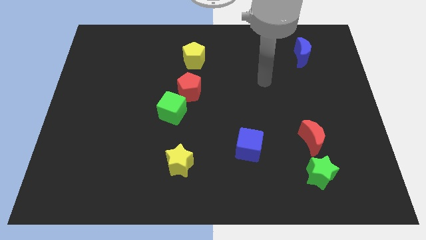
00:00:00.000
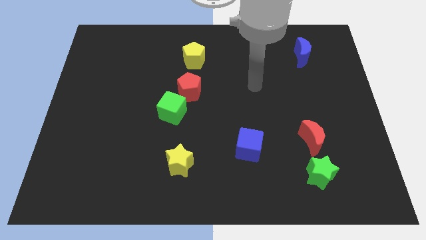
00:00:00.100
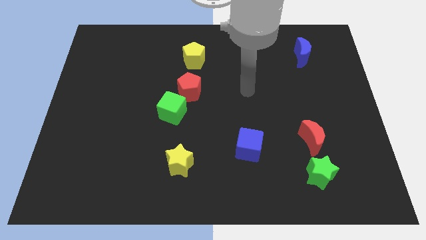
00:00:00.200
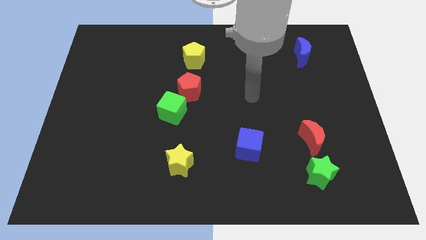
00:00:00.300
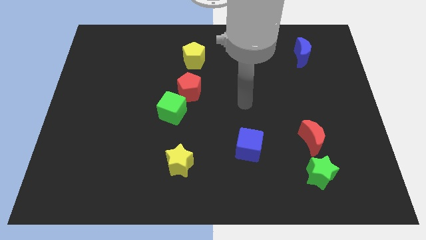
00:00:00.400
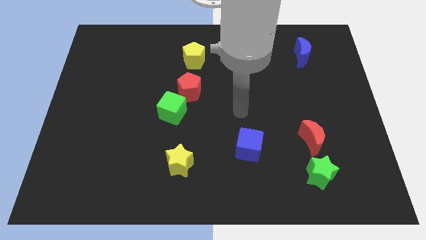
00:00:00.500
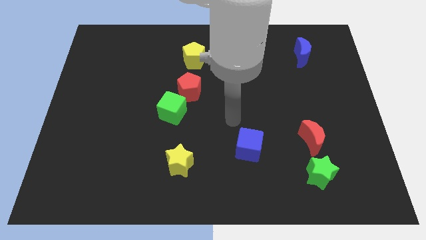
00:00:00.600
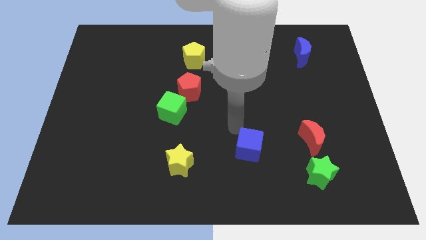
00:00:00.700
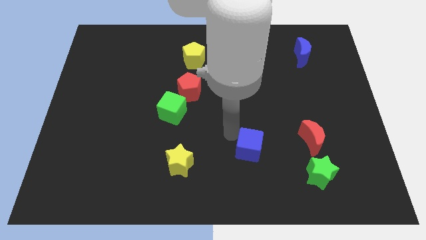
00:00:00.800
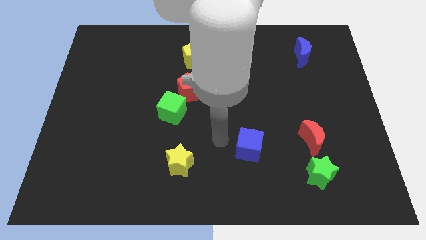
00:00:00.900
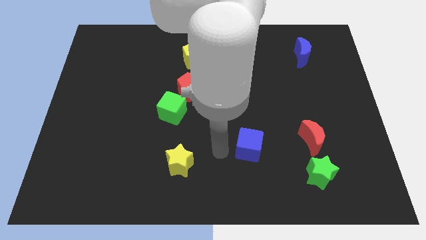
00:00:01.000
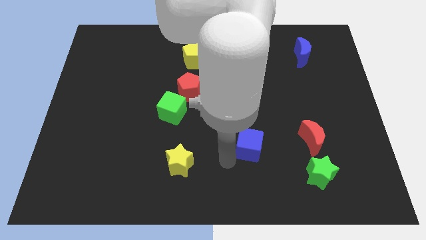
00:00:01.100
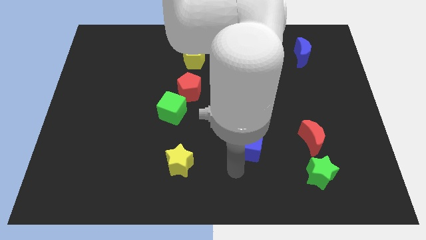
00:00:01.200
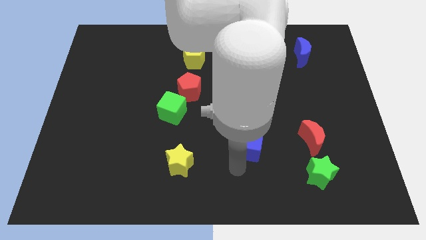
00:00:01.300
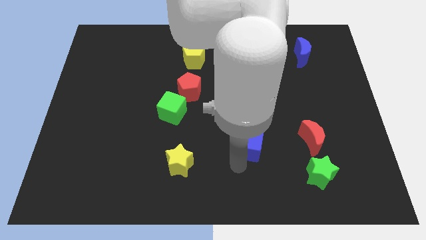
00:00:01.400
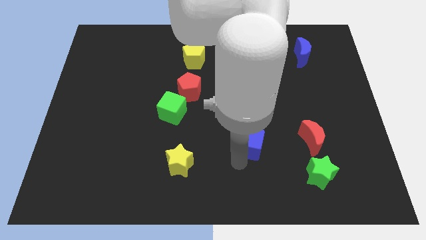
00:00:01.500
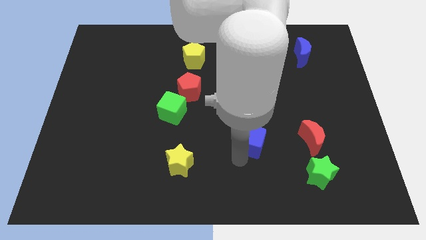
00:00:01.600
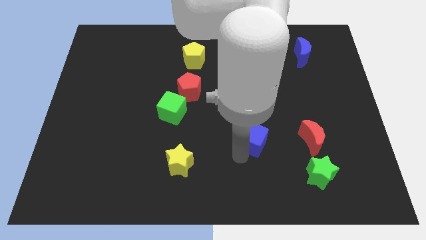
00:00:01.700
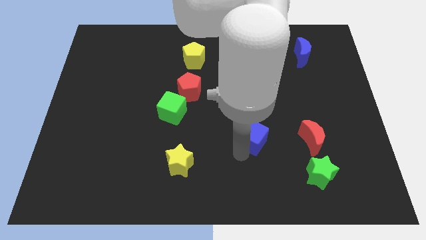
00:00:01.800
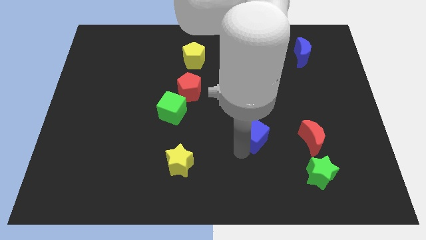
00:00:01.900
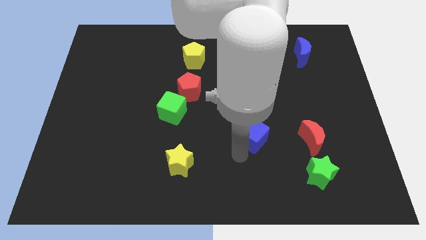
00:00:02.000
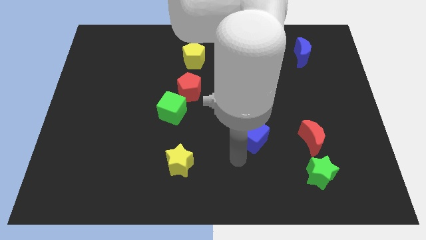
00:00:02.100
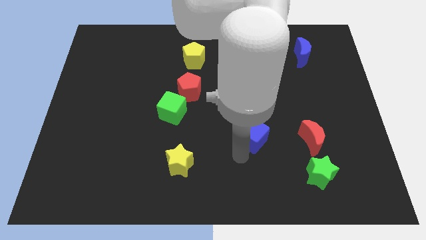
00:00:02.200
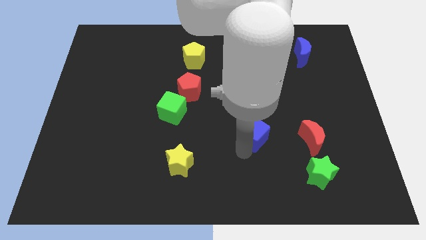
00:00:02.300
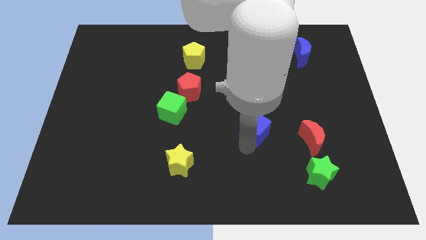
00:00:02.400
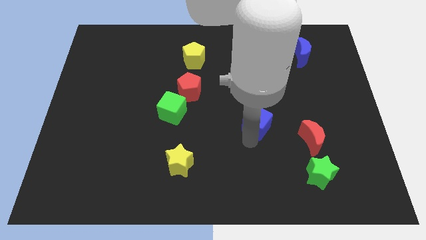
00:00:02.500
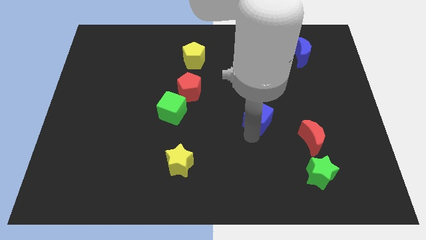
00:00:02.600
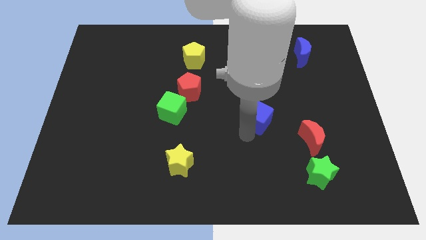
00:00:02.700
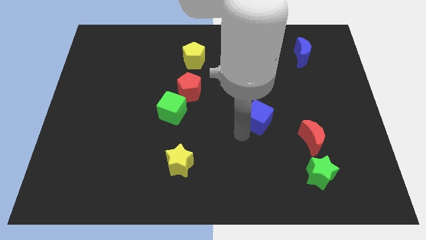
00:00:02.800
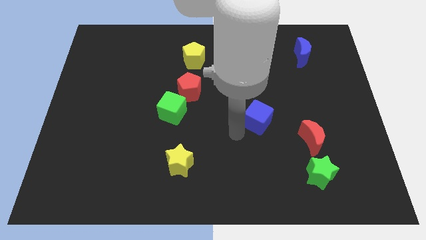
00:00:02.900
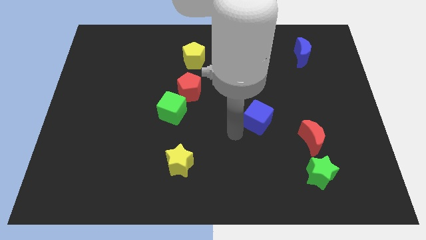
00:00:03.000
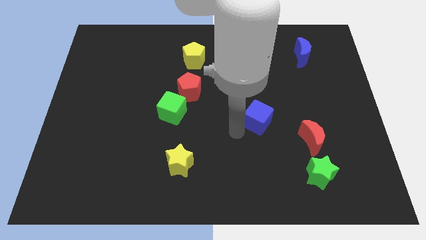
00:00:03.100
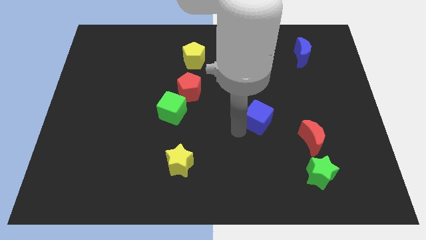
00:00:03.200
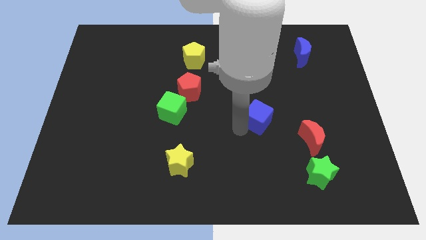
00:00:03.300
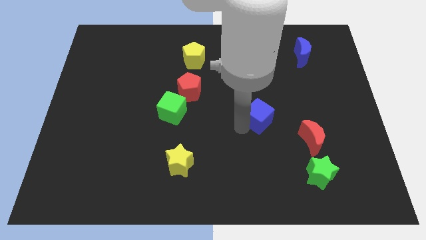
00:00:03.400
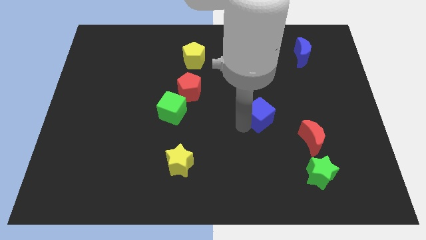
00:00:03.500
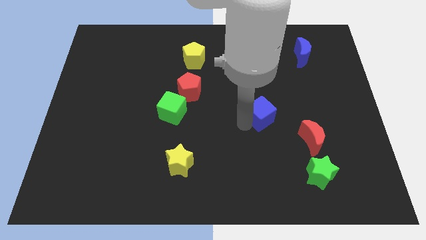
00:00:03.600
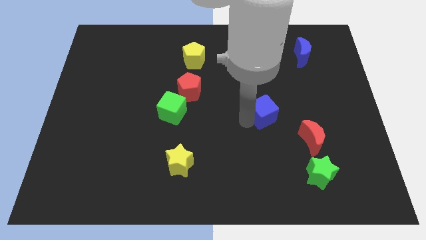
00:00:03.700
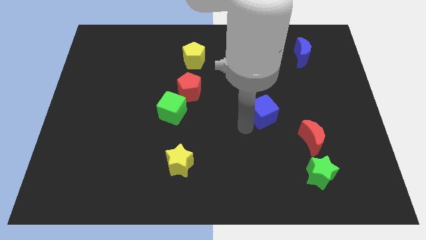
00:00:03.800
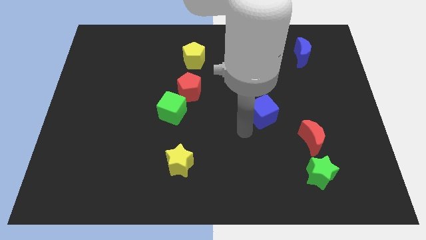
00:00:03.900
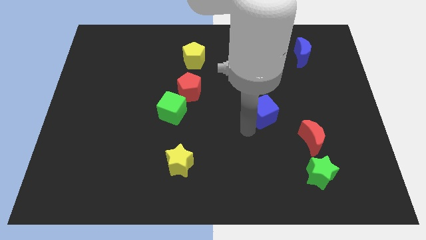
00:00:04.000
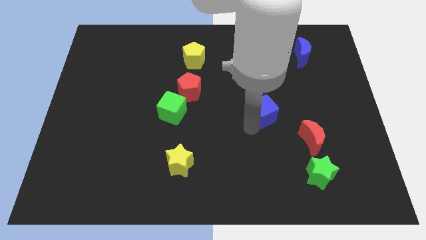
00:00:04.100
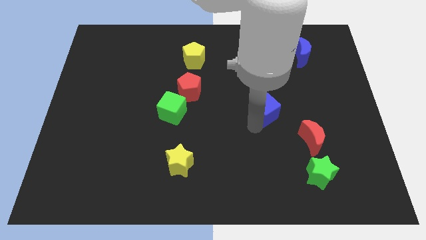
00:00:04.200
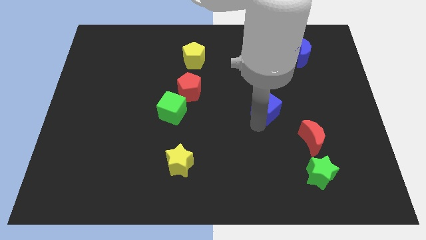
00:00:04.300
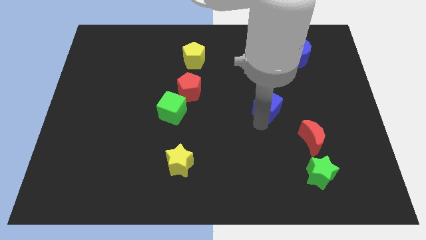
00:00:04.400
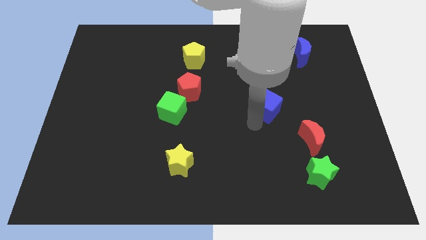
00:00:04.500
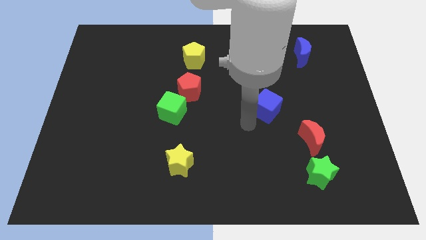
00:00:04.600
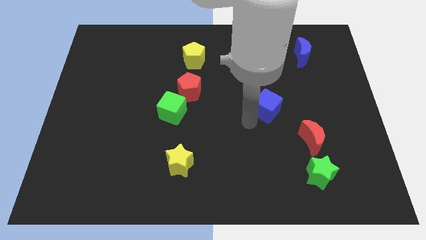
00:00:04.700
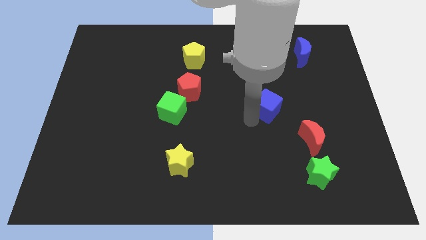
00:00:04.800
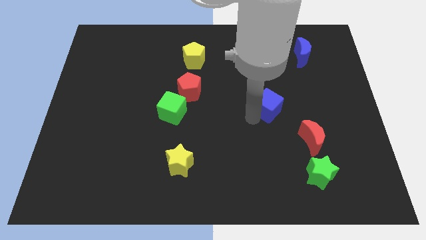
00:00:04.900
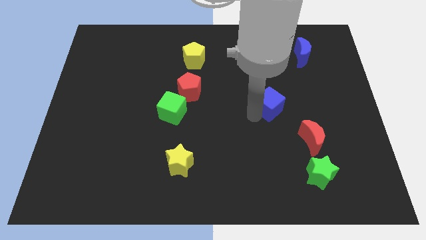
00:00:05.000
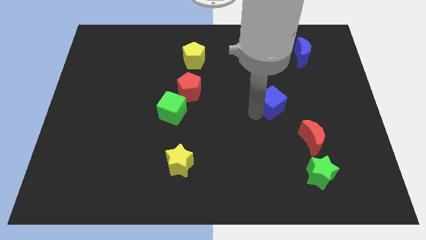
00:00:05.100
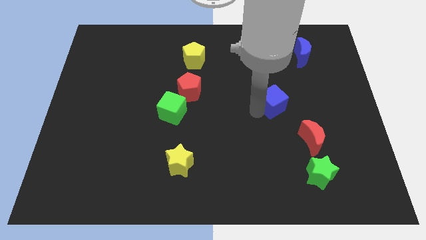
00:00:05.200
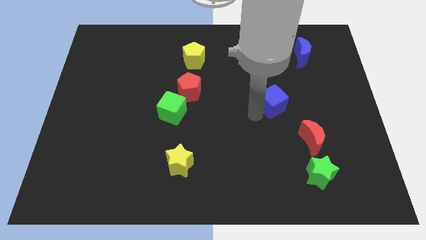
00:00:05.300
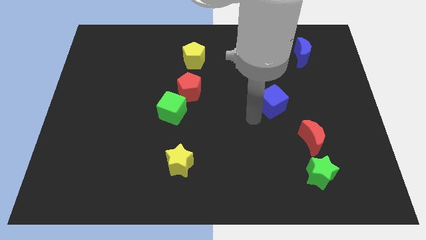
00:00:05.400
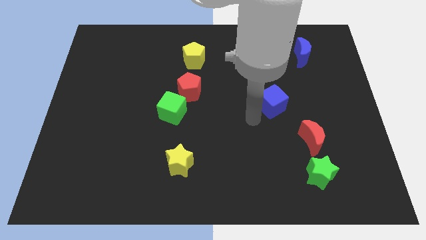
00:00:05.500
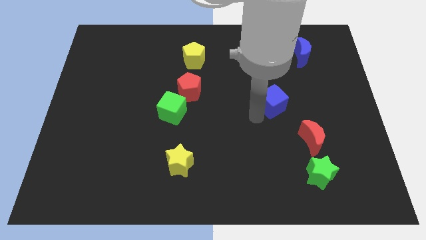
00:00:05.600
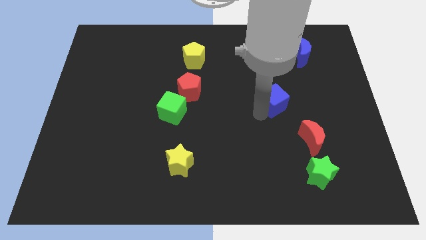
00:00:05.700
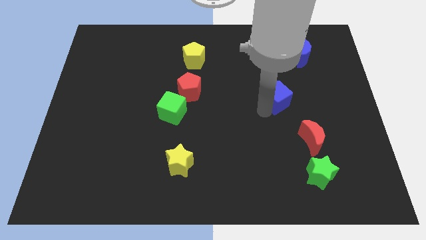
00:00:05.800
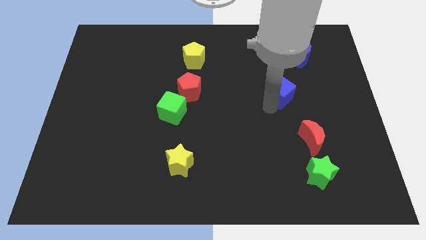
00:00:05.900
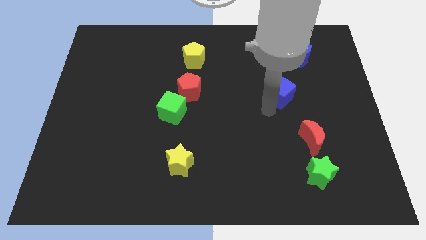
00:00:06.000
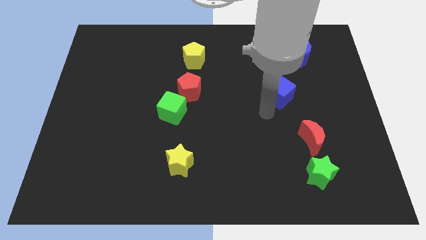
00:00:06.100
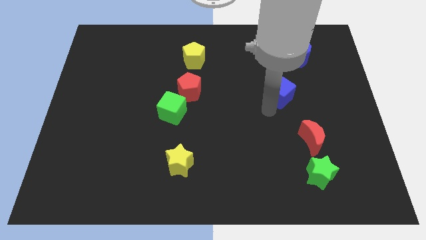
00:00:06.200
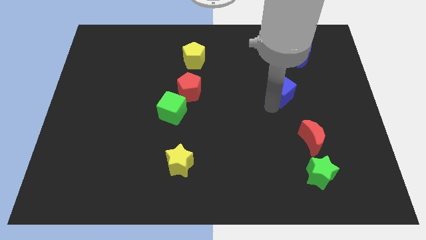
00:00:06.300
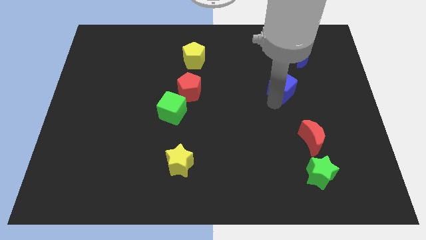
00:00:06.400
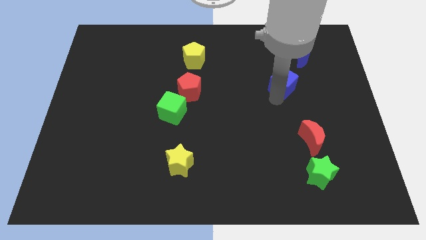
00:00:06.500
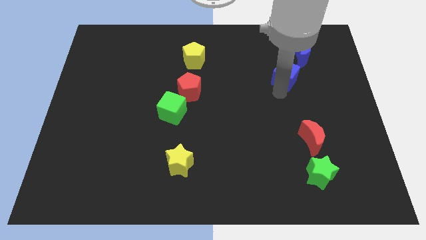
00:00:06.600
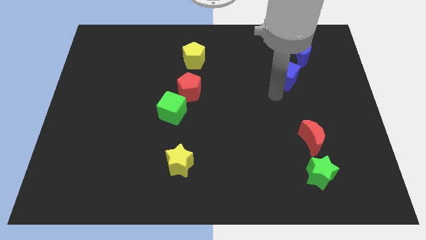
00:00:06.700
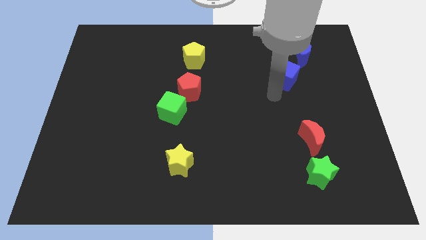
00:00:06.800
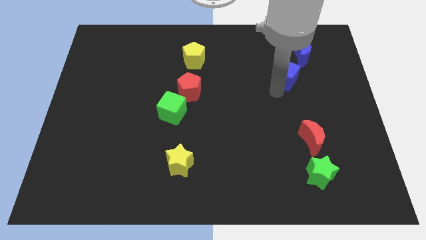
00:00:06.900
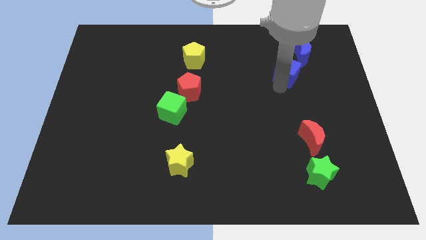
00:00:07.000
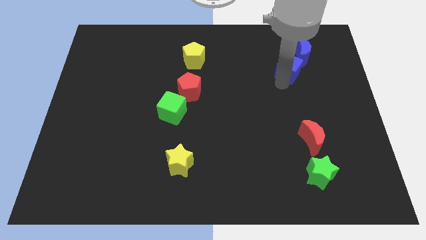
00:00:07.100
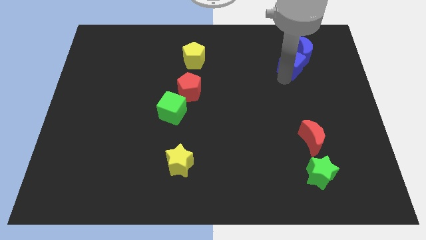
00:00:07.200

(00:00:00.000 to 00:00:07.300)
push the blue cube towards the blue moon
